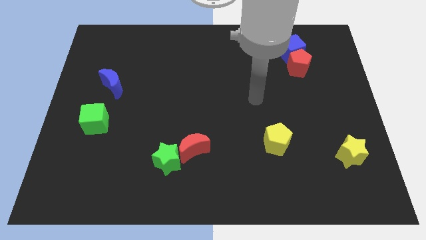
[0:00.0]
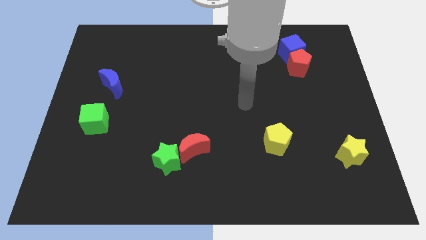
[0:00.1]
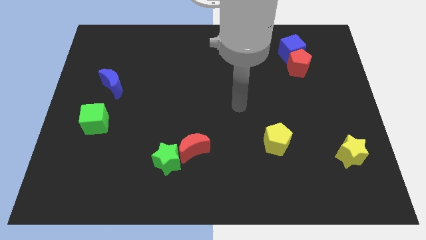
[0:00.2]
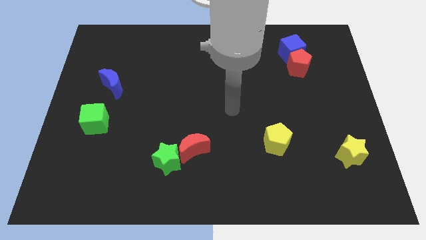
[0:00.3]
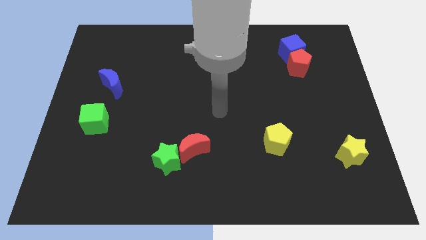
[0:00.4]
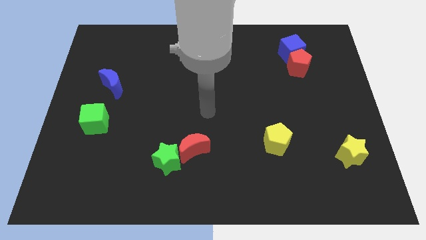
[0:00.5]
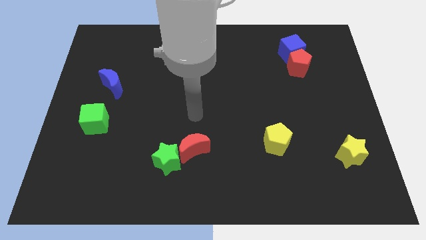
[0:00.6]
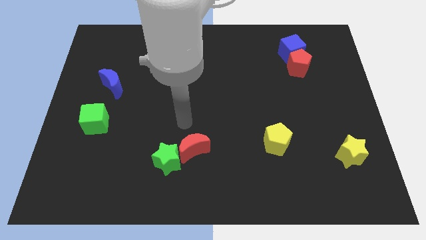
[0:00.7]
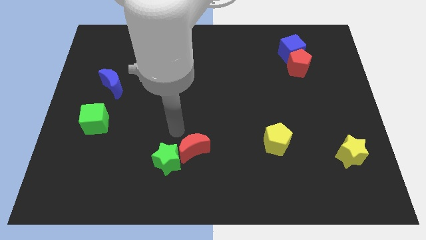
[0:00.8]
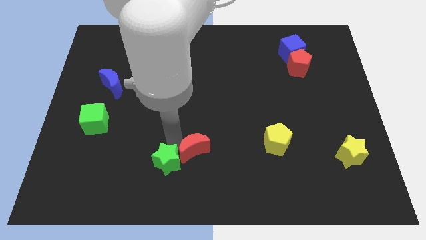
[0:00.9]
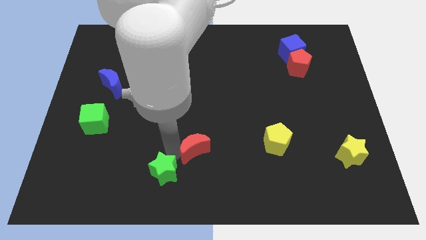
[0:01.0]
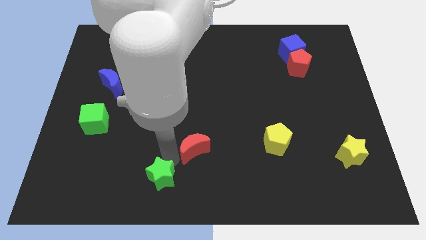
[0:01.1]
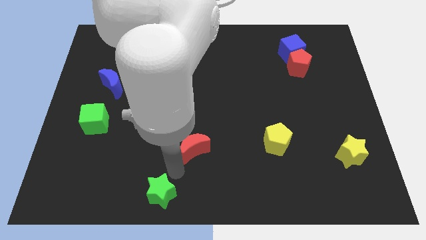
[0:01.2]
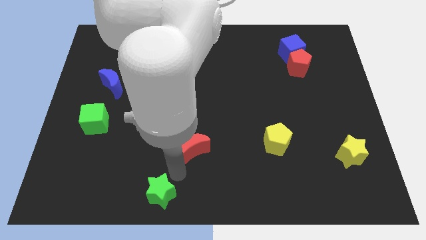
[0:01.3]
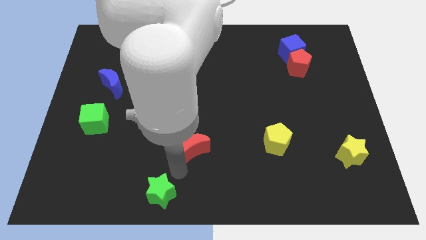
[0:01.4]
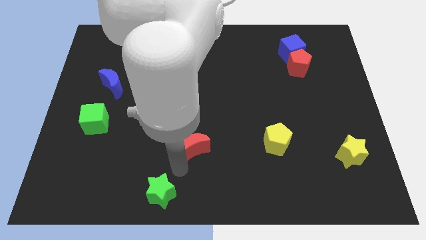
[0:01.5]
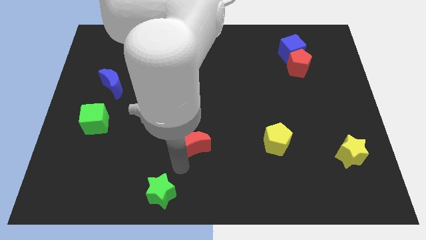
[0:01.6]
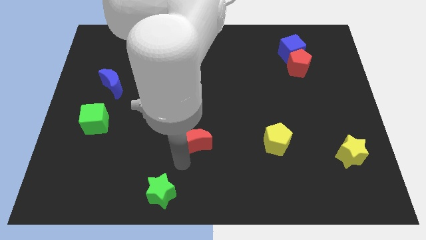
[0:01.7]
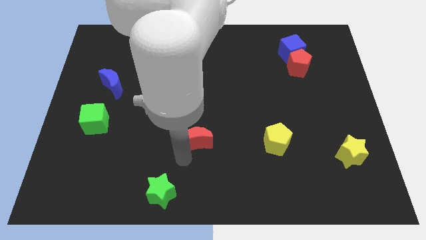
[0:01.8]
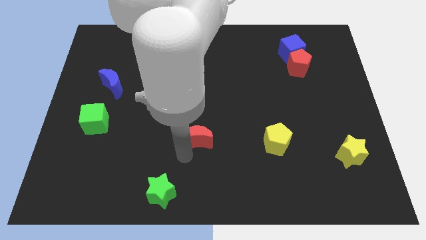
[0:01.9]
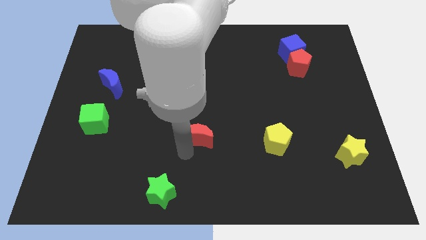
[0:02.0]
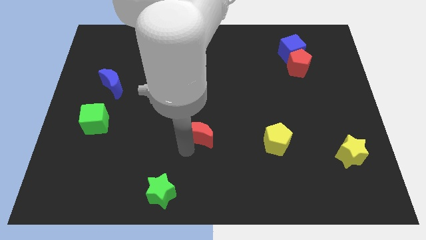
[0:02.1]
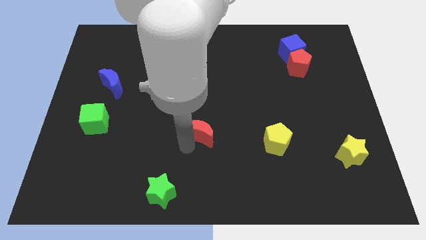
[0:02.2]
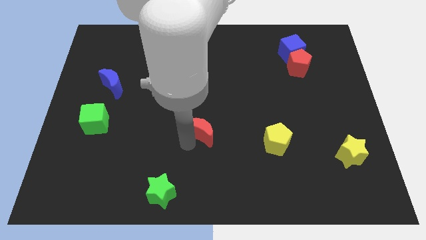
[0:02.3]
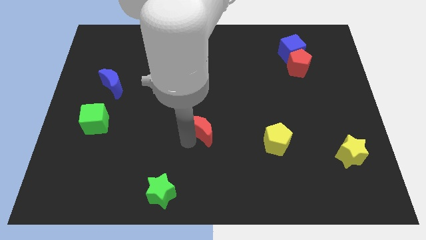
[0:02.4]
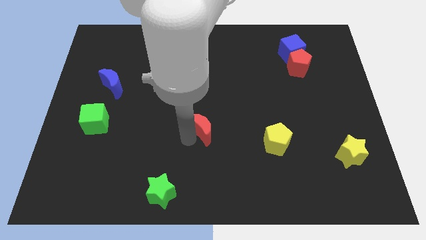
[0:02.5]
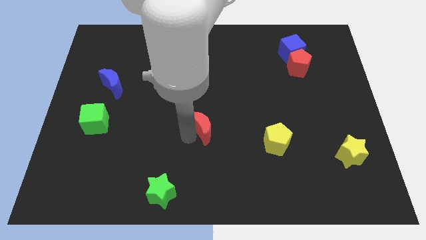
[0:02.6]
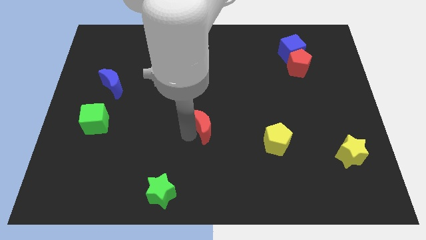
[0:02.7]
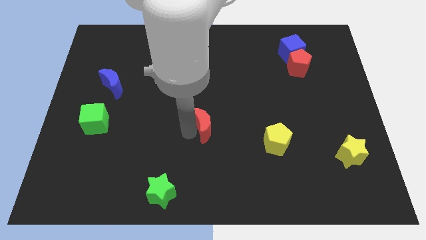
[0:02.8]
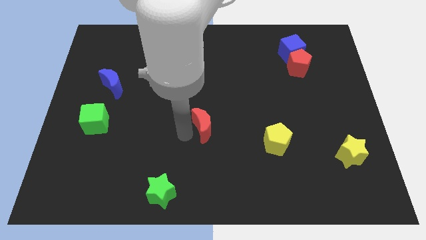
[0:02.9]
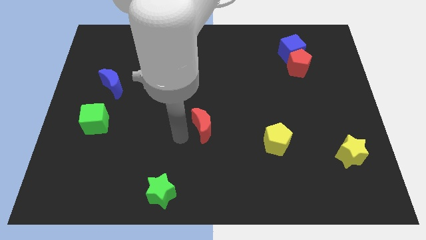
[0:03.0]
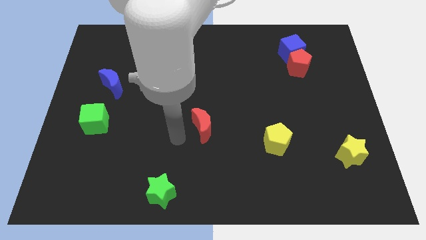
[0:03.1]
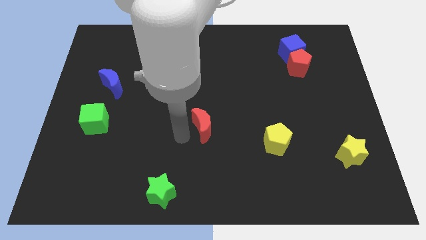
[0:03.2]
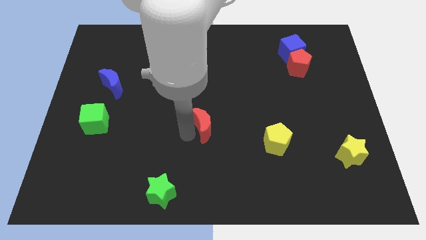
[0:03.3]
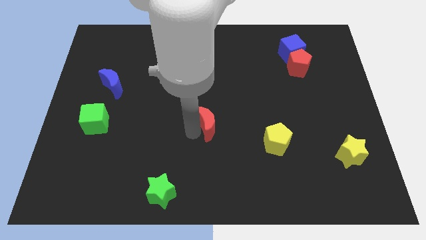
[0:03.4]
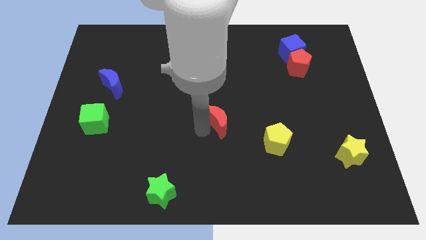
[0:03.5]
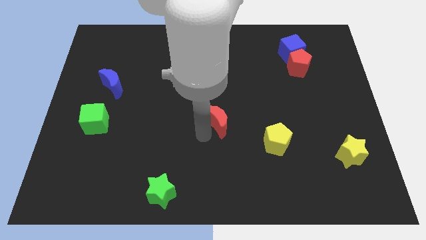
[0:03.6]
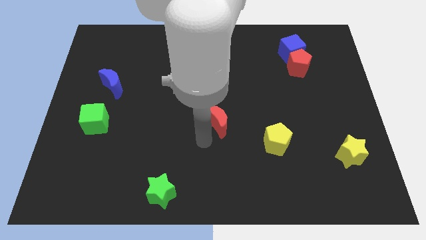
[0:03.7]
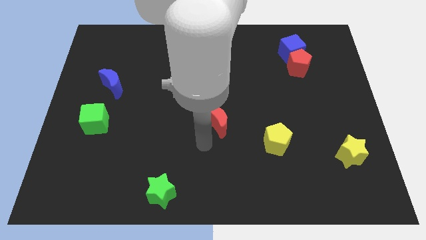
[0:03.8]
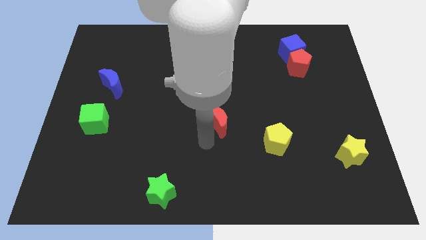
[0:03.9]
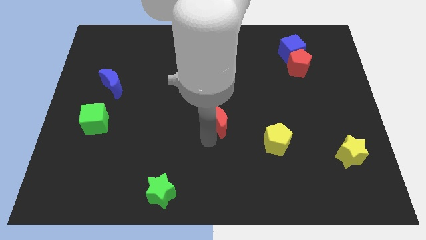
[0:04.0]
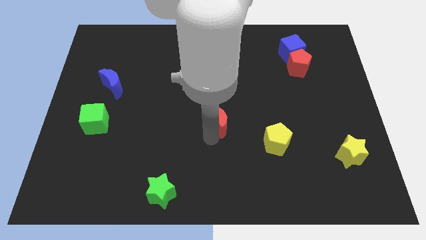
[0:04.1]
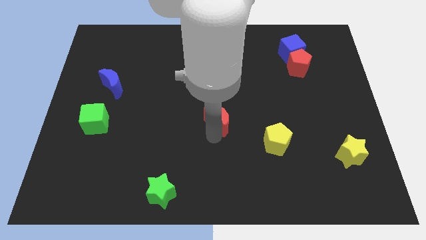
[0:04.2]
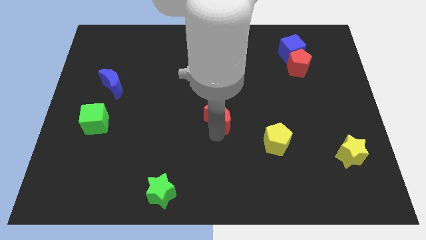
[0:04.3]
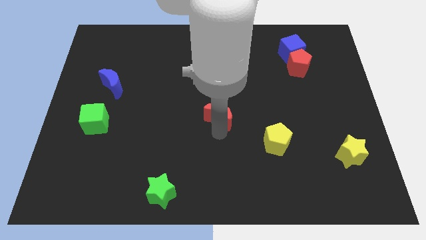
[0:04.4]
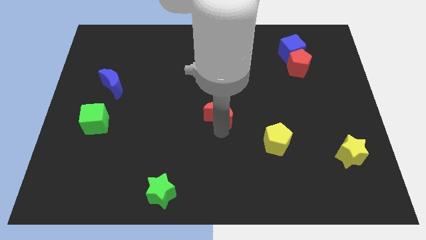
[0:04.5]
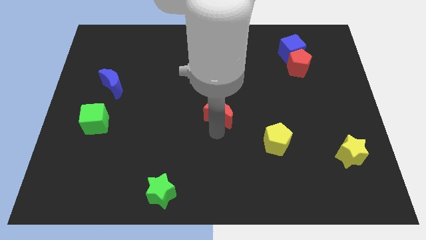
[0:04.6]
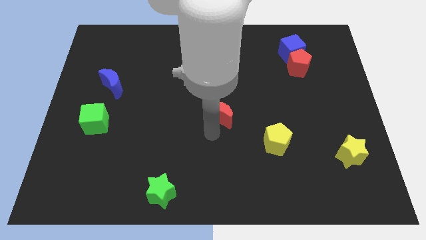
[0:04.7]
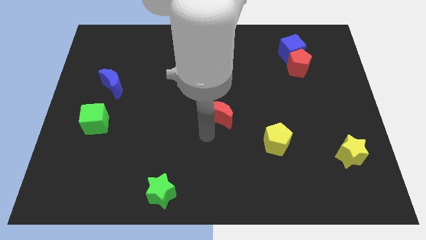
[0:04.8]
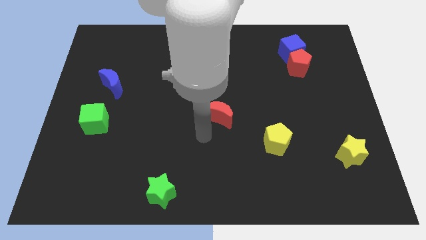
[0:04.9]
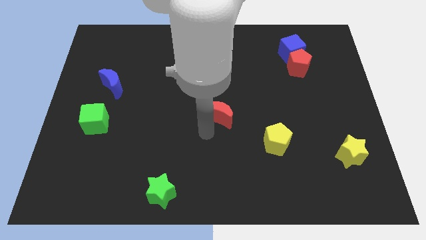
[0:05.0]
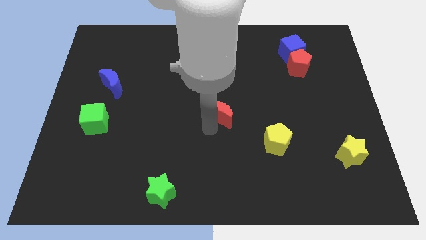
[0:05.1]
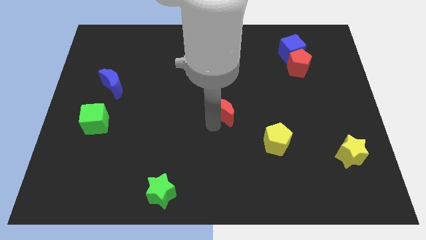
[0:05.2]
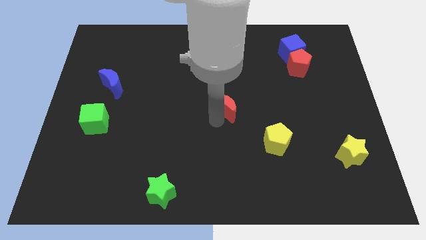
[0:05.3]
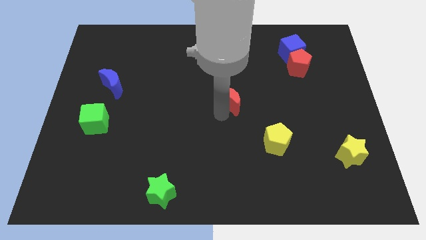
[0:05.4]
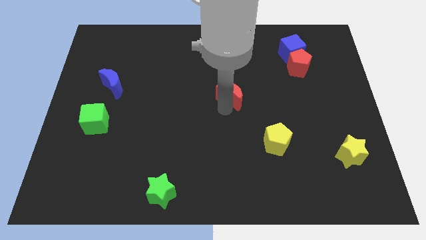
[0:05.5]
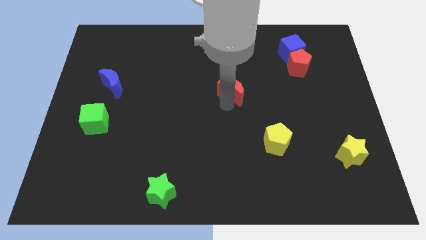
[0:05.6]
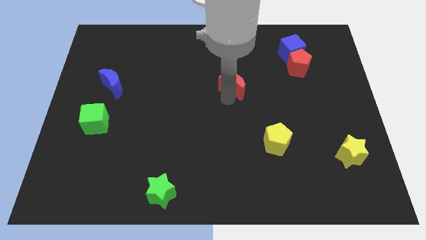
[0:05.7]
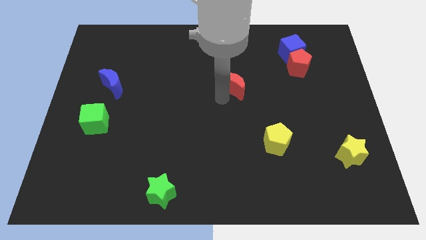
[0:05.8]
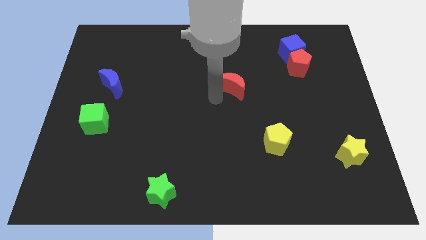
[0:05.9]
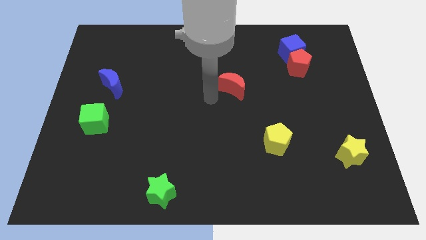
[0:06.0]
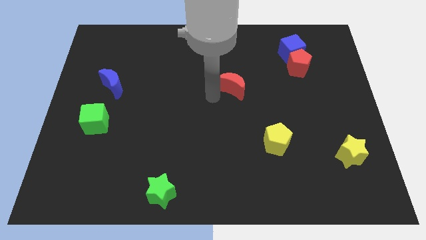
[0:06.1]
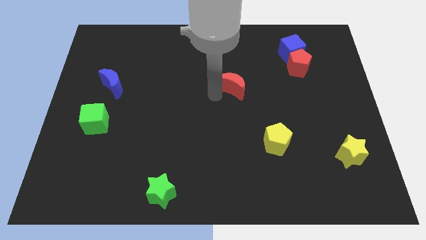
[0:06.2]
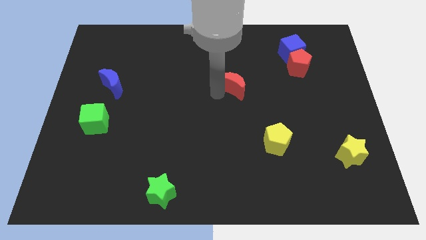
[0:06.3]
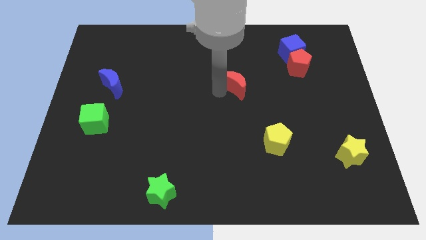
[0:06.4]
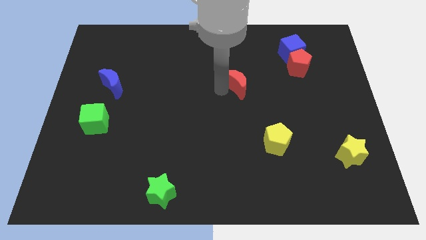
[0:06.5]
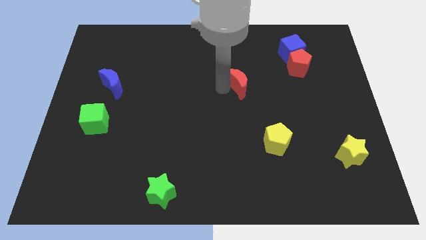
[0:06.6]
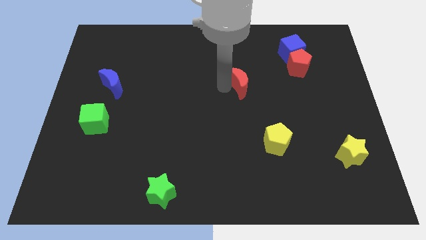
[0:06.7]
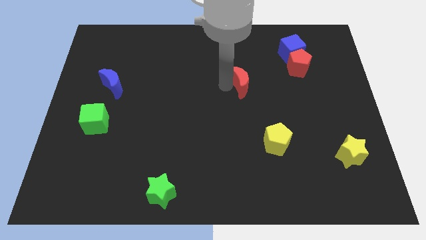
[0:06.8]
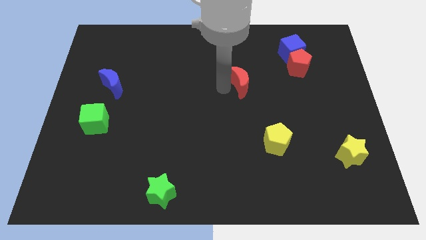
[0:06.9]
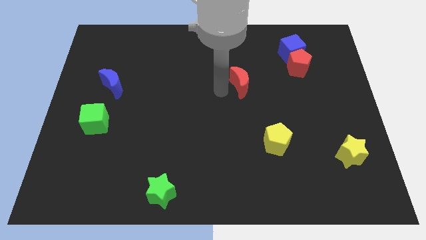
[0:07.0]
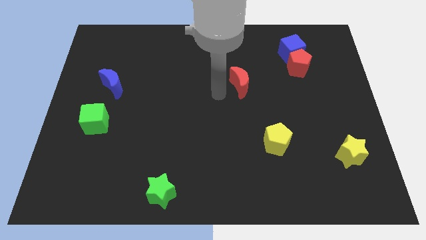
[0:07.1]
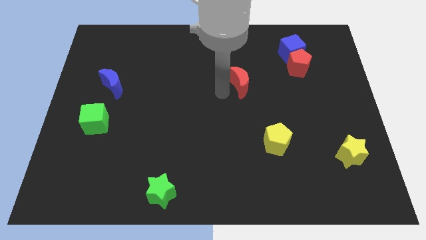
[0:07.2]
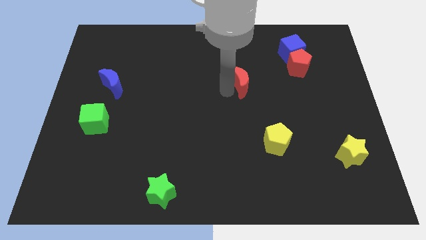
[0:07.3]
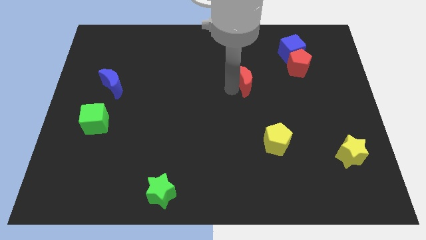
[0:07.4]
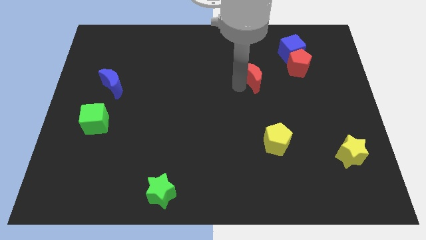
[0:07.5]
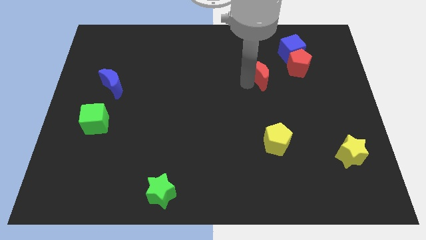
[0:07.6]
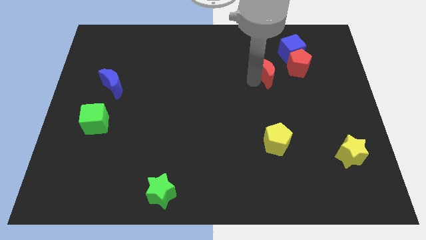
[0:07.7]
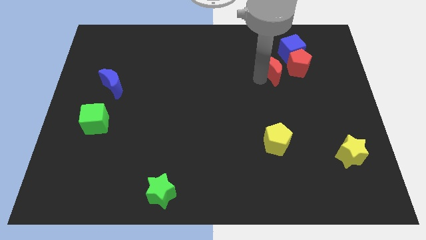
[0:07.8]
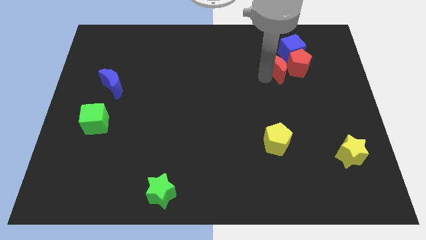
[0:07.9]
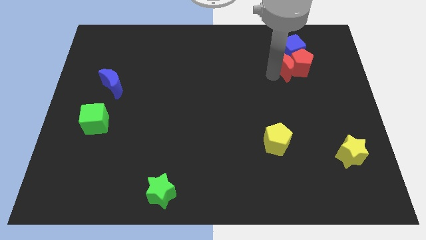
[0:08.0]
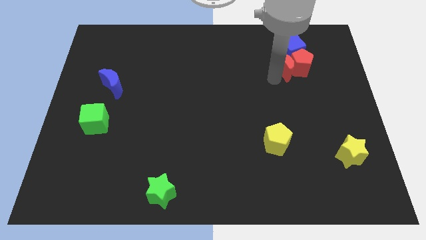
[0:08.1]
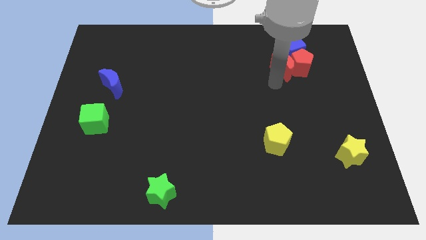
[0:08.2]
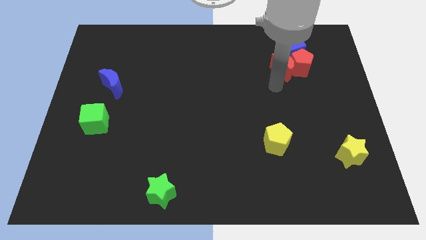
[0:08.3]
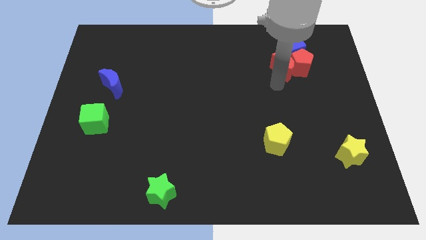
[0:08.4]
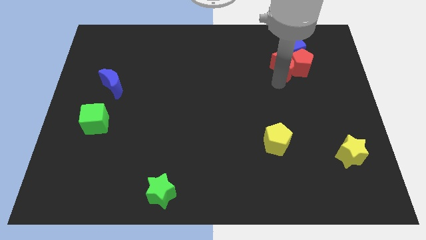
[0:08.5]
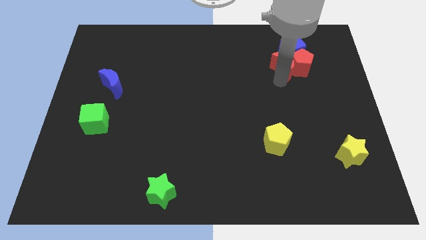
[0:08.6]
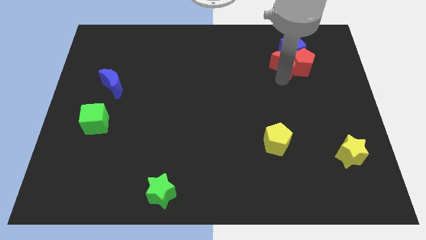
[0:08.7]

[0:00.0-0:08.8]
move the red moon next to the blue cube
